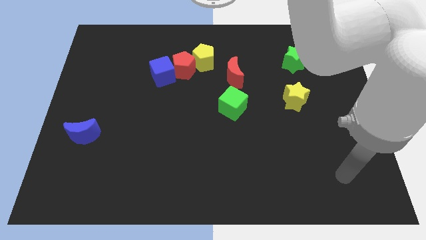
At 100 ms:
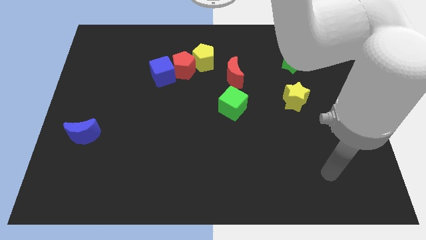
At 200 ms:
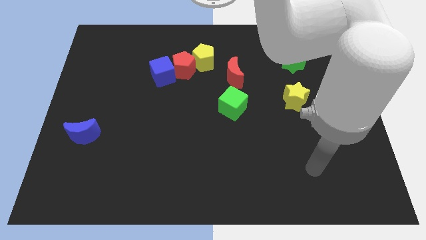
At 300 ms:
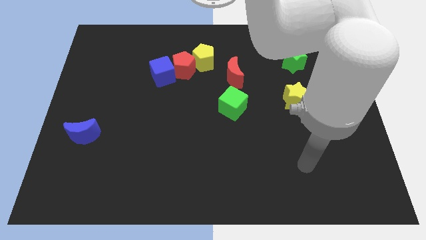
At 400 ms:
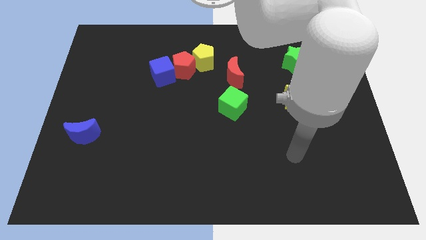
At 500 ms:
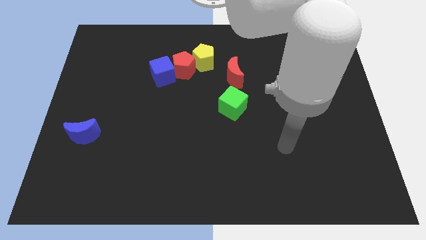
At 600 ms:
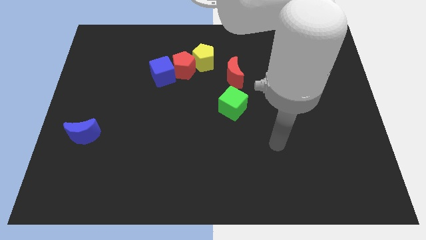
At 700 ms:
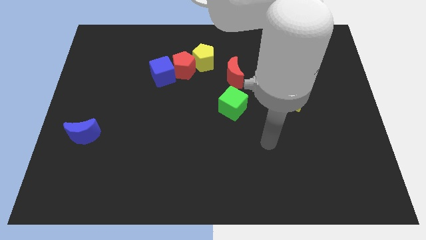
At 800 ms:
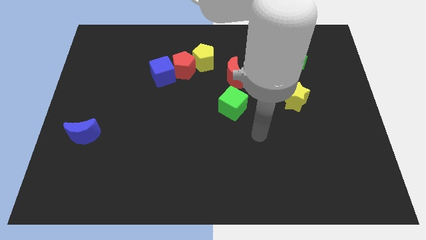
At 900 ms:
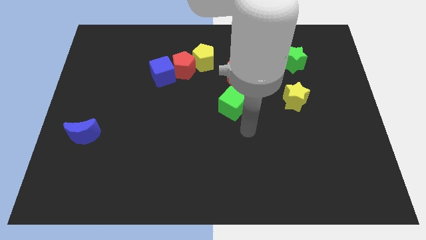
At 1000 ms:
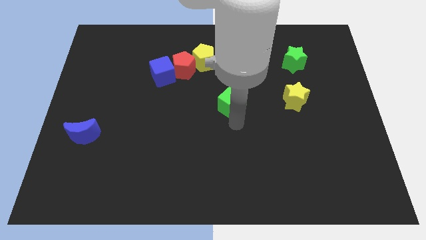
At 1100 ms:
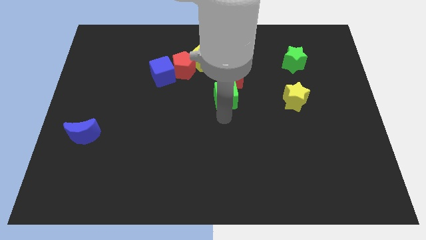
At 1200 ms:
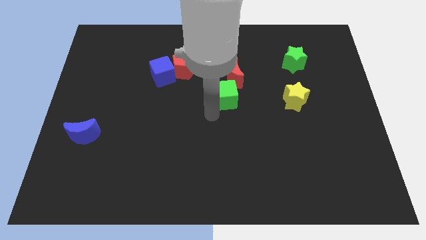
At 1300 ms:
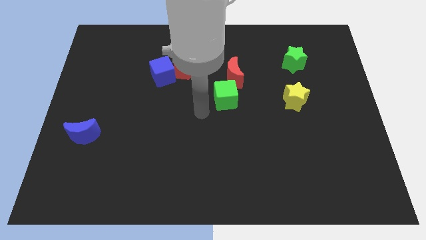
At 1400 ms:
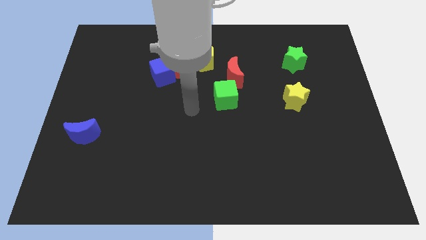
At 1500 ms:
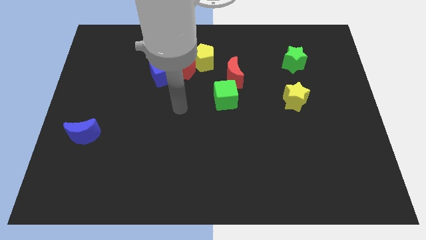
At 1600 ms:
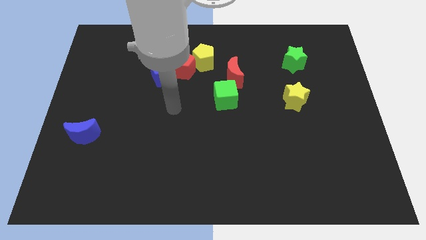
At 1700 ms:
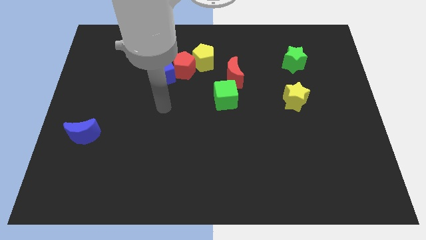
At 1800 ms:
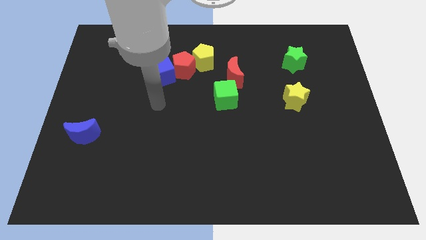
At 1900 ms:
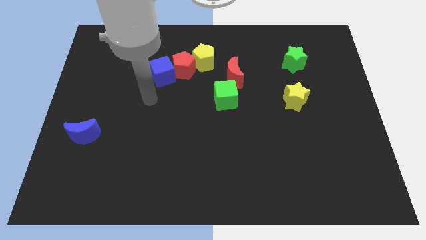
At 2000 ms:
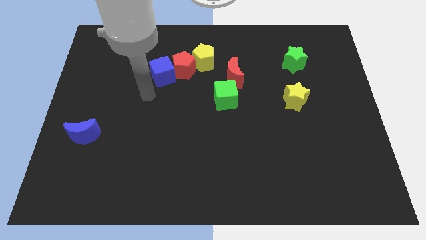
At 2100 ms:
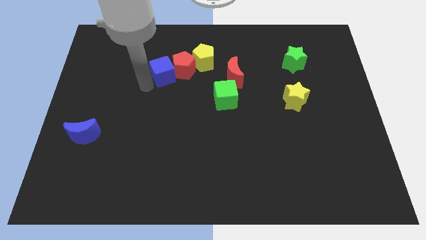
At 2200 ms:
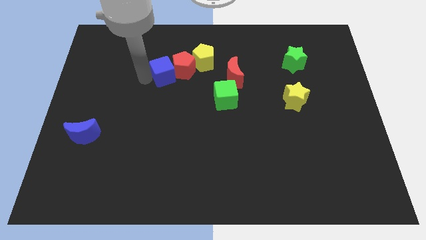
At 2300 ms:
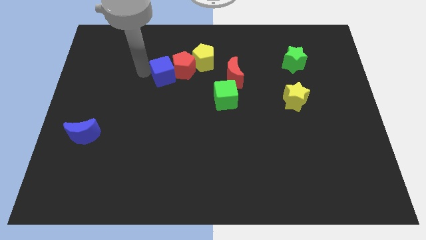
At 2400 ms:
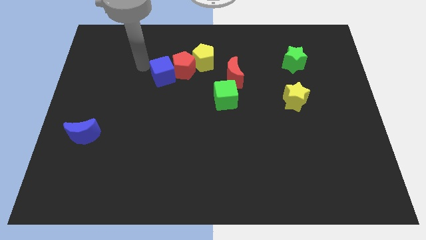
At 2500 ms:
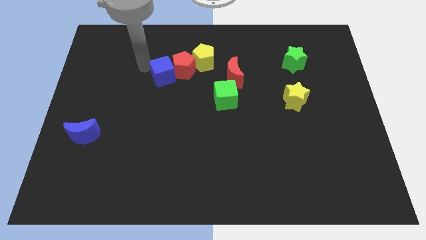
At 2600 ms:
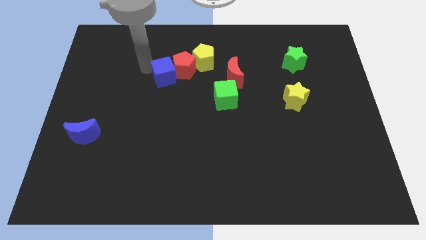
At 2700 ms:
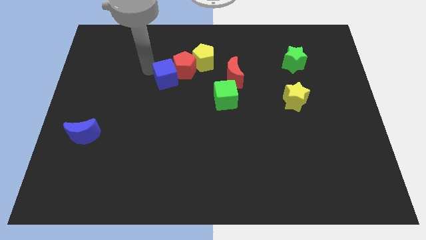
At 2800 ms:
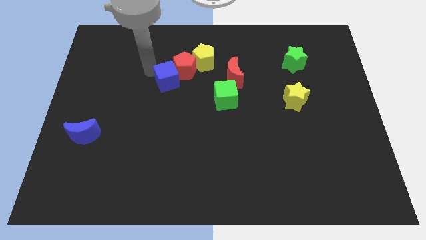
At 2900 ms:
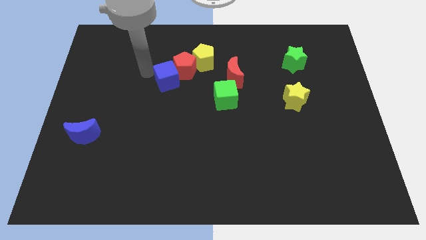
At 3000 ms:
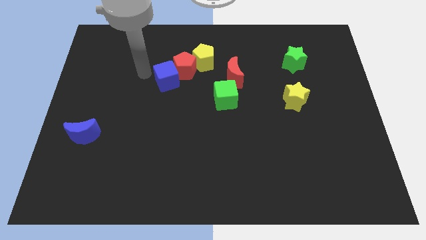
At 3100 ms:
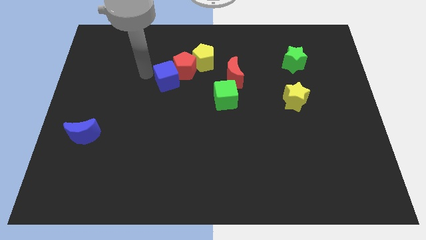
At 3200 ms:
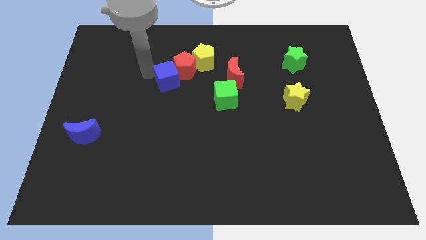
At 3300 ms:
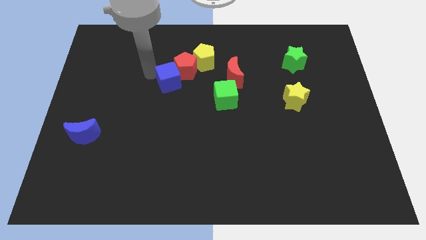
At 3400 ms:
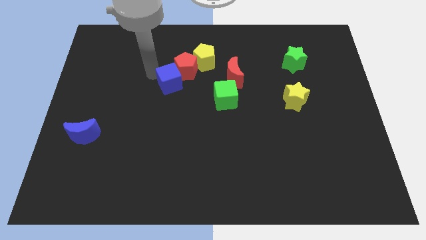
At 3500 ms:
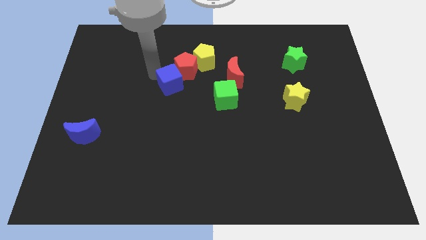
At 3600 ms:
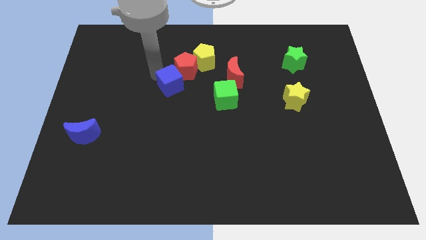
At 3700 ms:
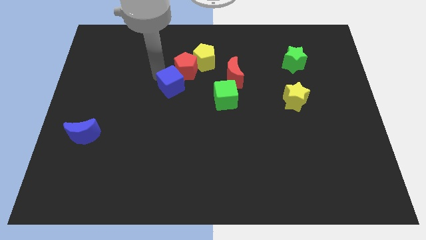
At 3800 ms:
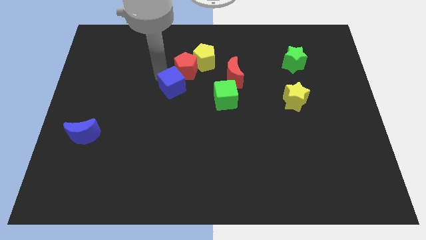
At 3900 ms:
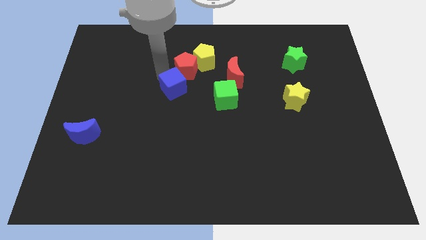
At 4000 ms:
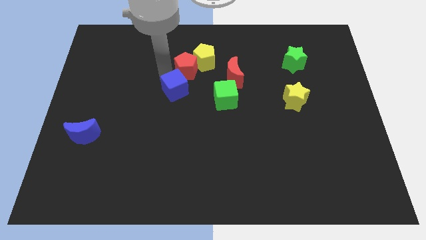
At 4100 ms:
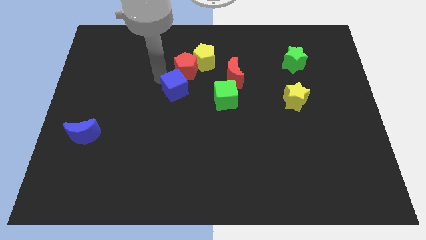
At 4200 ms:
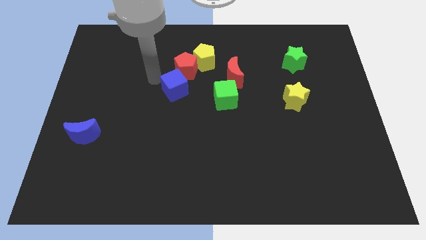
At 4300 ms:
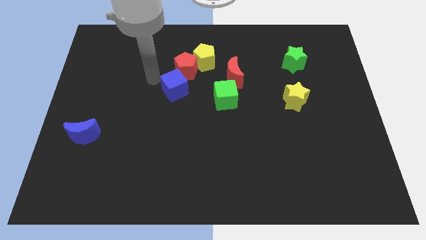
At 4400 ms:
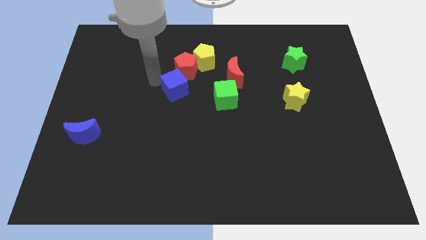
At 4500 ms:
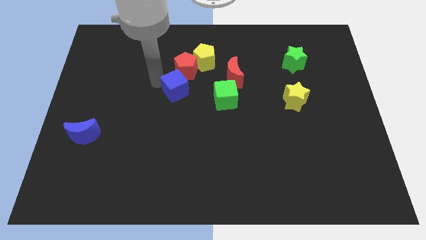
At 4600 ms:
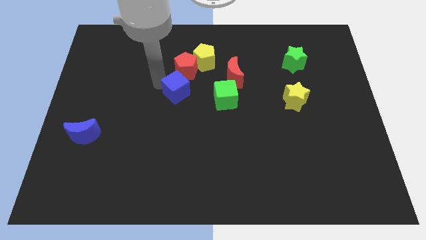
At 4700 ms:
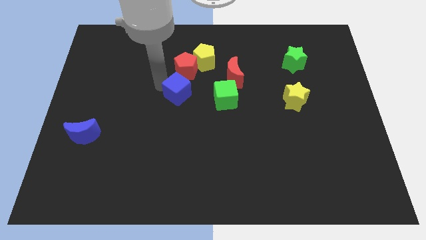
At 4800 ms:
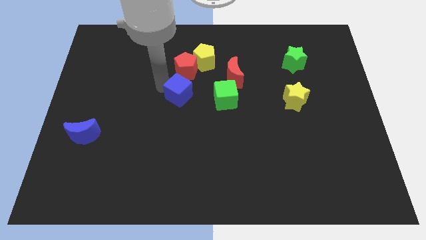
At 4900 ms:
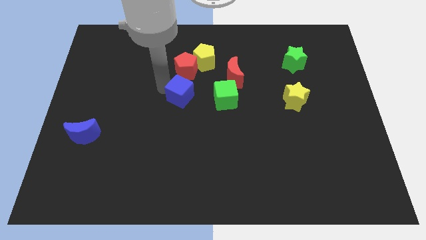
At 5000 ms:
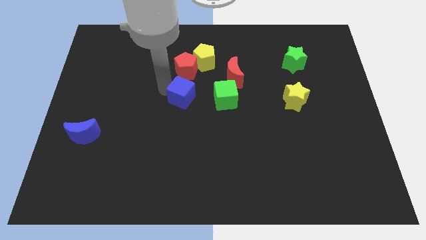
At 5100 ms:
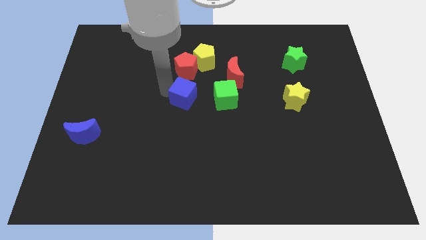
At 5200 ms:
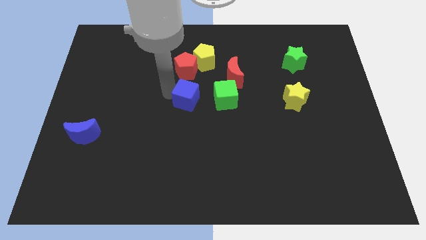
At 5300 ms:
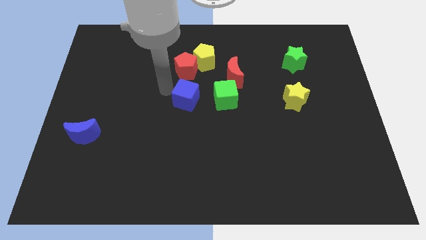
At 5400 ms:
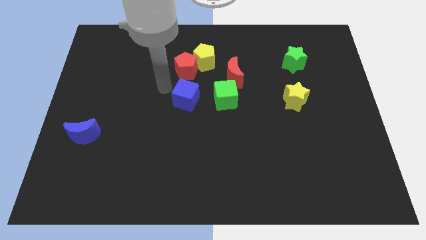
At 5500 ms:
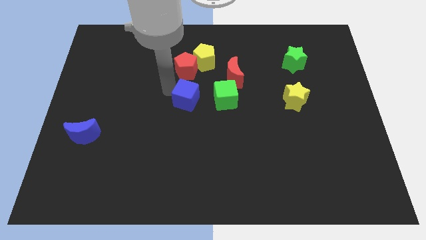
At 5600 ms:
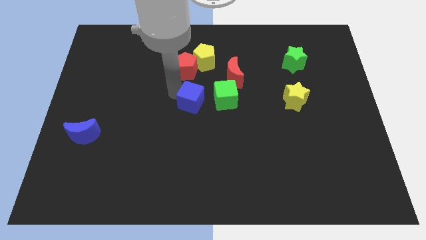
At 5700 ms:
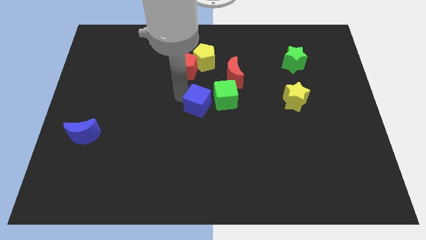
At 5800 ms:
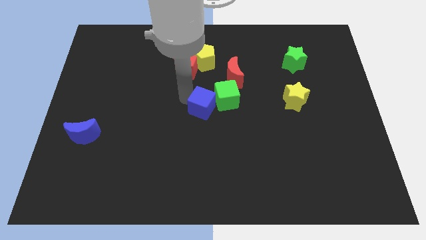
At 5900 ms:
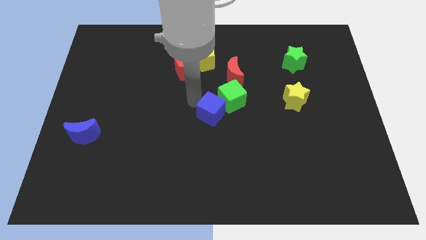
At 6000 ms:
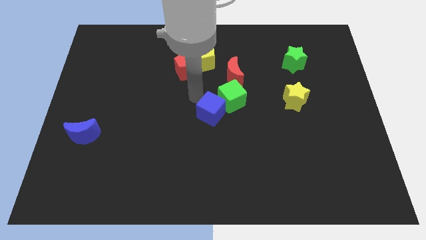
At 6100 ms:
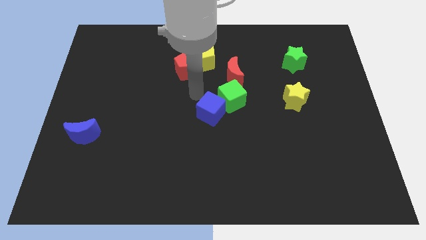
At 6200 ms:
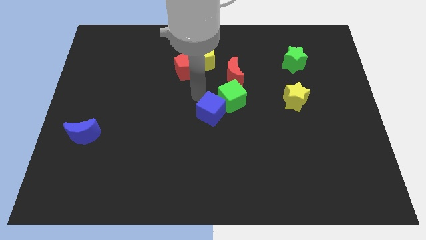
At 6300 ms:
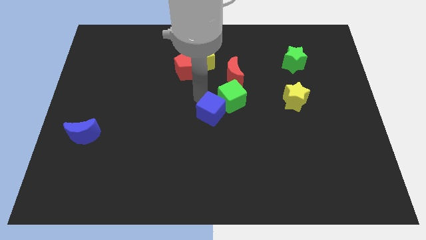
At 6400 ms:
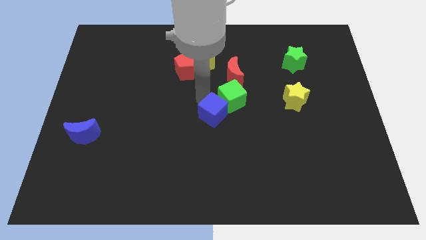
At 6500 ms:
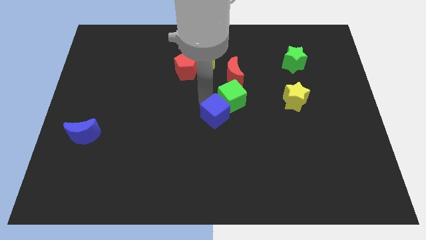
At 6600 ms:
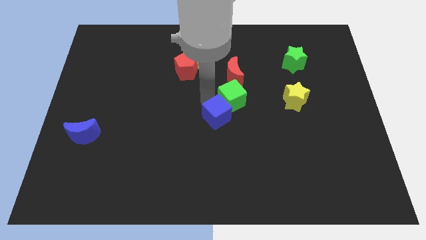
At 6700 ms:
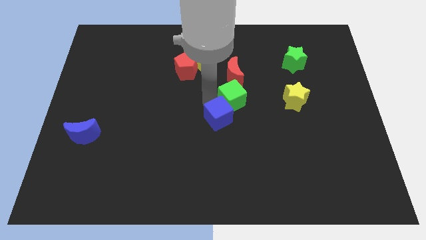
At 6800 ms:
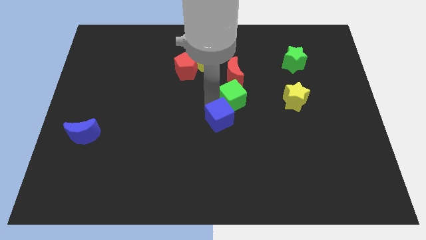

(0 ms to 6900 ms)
push the blue cube down and right diagonally

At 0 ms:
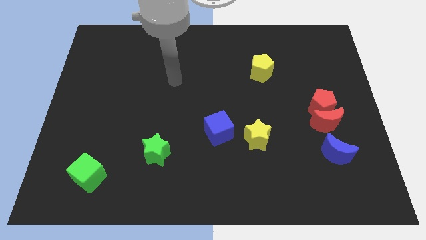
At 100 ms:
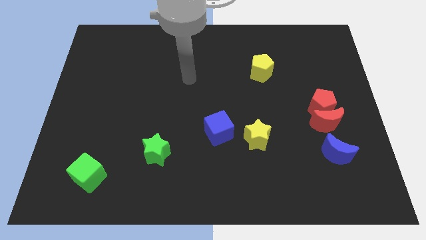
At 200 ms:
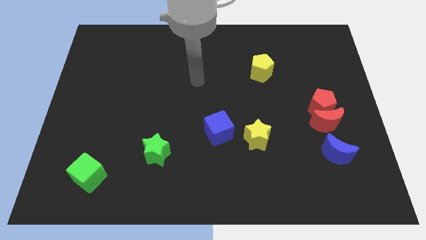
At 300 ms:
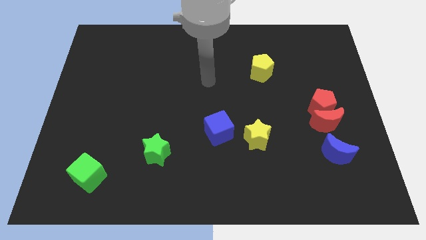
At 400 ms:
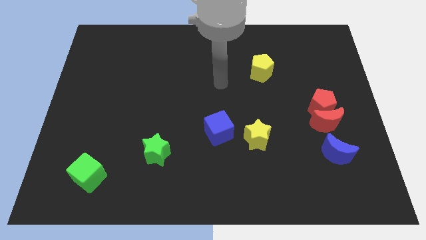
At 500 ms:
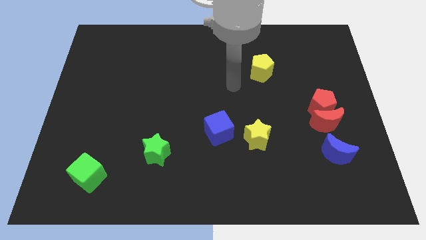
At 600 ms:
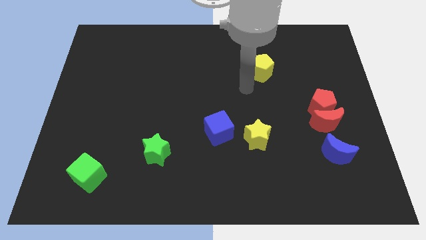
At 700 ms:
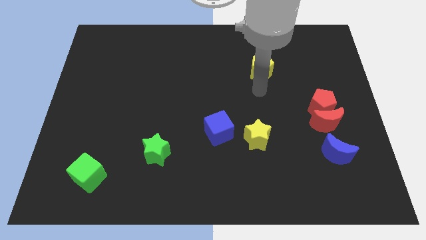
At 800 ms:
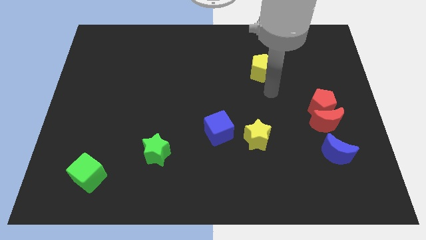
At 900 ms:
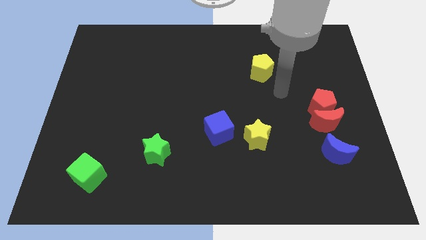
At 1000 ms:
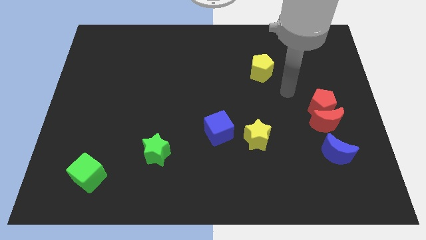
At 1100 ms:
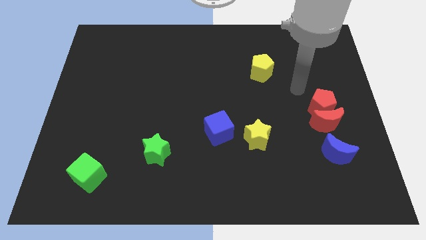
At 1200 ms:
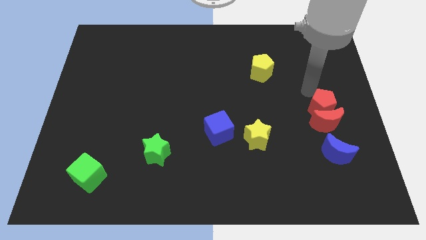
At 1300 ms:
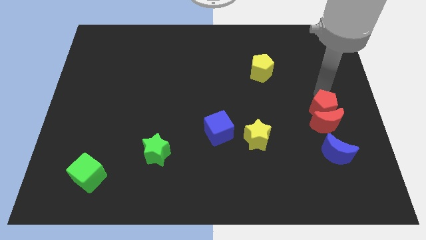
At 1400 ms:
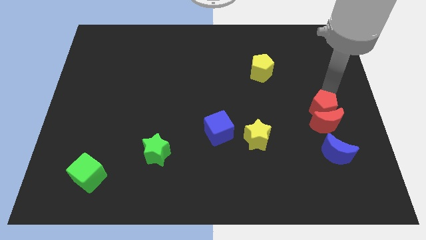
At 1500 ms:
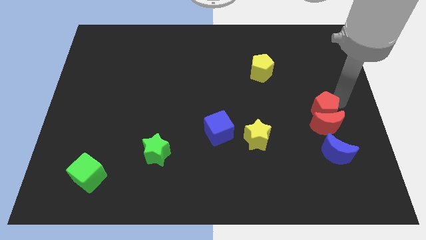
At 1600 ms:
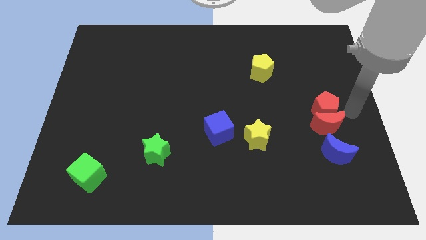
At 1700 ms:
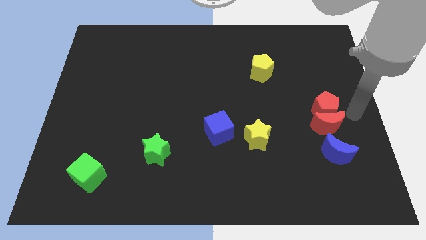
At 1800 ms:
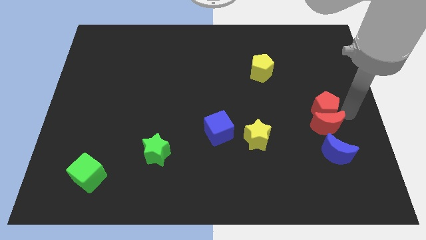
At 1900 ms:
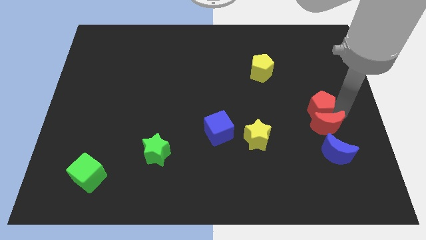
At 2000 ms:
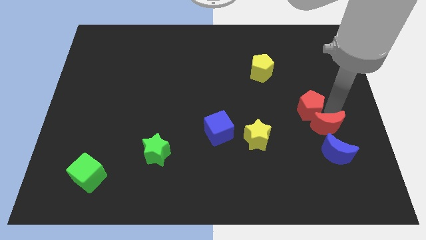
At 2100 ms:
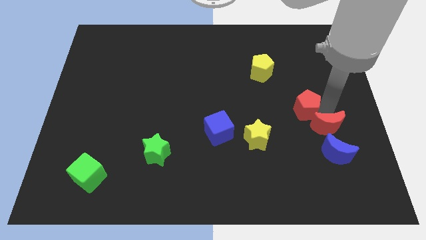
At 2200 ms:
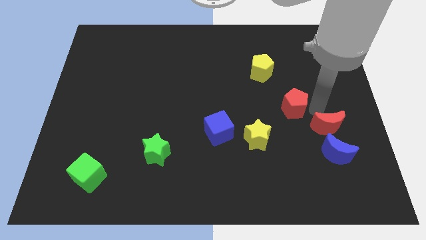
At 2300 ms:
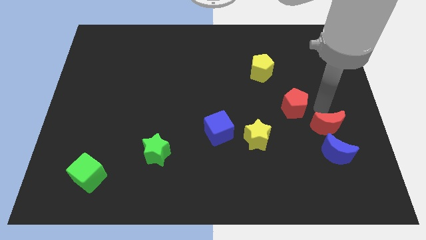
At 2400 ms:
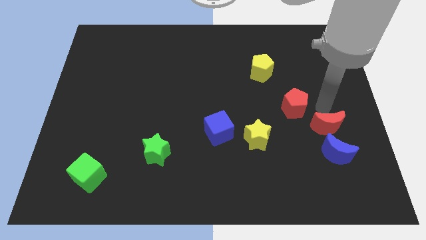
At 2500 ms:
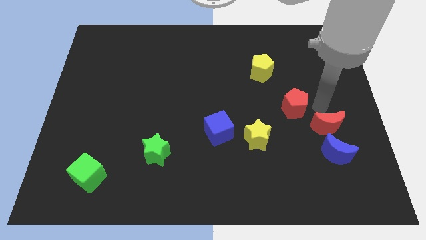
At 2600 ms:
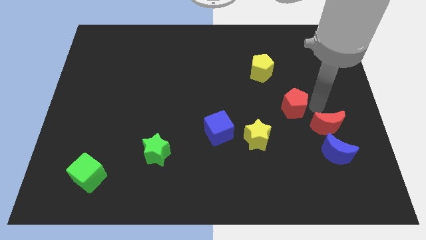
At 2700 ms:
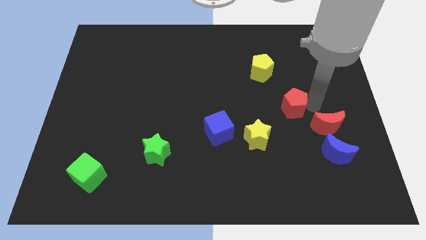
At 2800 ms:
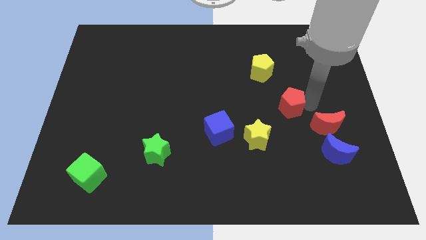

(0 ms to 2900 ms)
slightly move the red pentagon to the left
